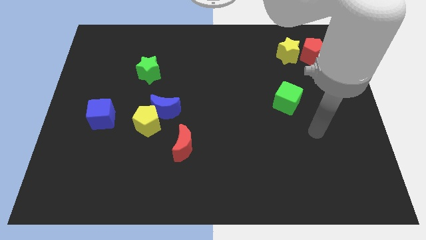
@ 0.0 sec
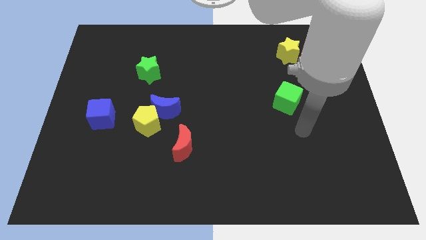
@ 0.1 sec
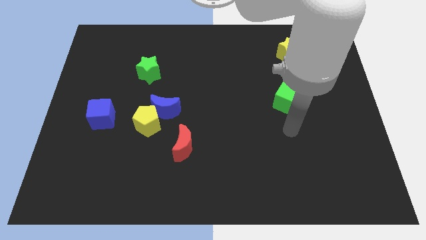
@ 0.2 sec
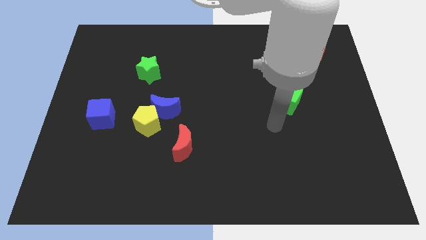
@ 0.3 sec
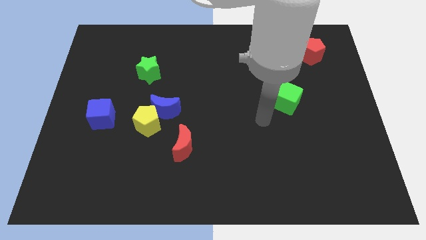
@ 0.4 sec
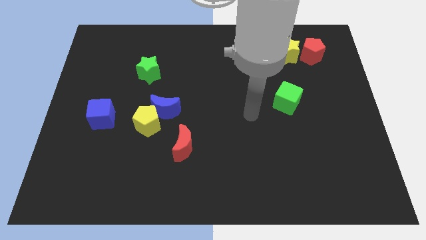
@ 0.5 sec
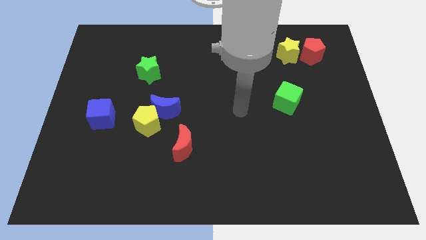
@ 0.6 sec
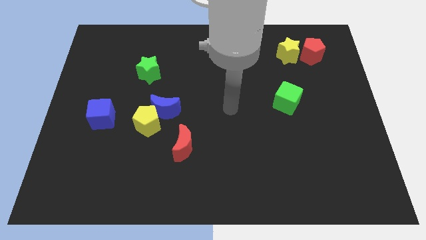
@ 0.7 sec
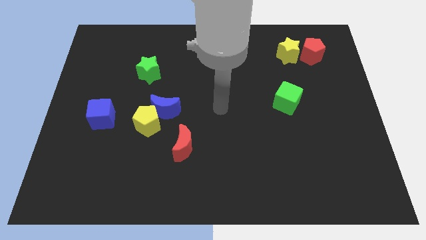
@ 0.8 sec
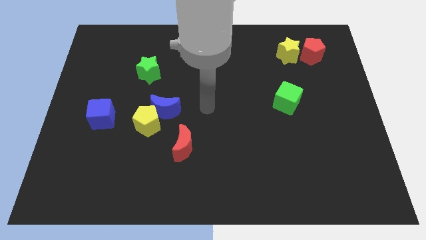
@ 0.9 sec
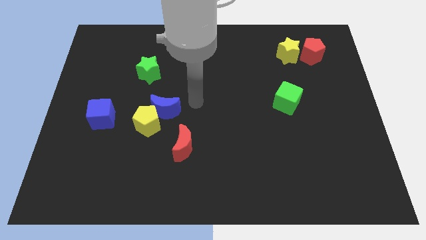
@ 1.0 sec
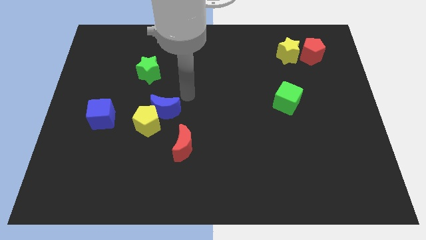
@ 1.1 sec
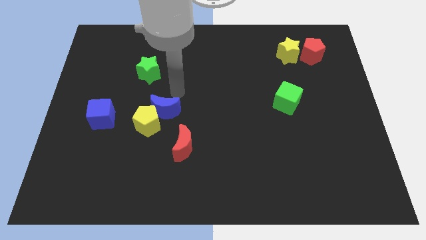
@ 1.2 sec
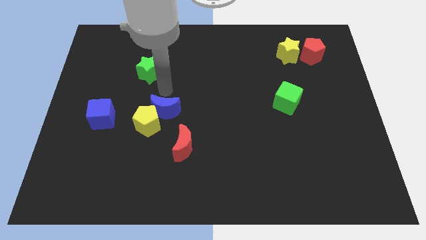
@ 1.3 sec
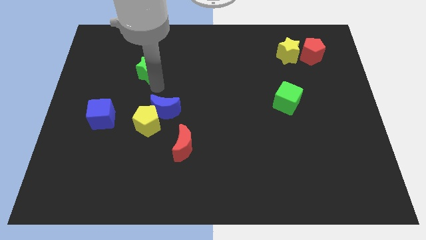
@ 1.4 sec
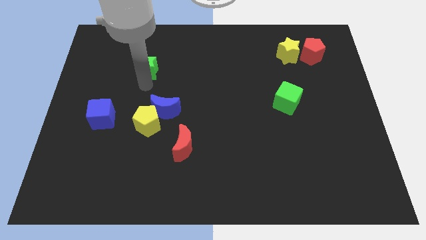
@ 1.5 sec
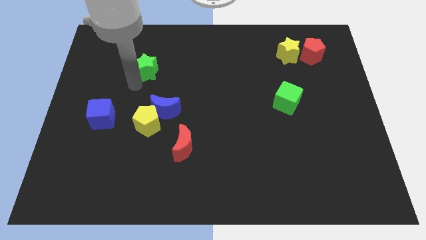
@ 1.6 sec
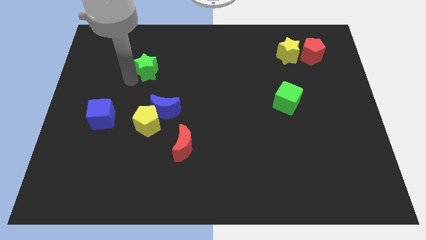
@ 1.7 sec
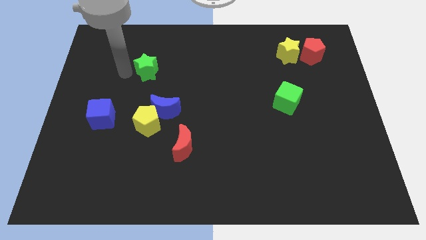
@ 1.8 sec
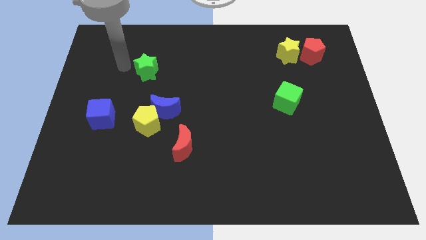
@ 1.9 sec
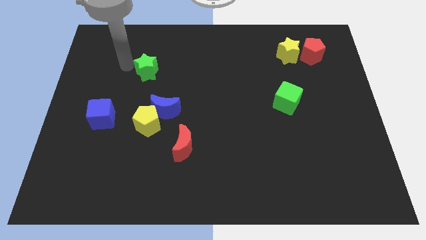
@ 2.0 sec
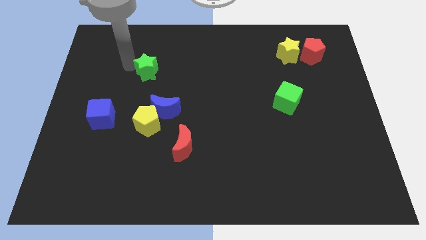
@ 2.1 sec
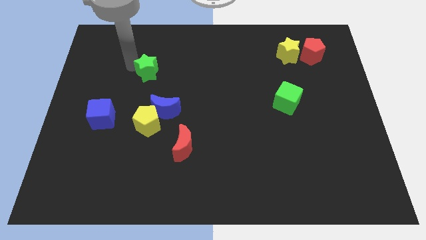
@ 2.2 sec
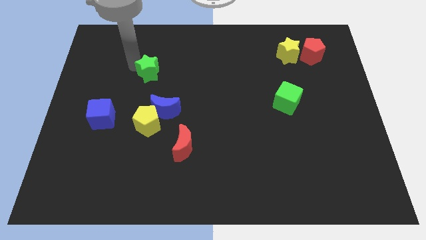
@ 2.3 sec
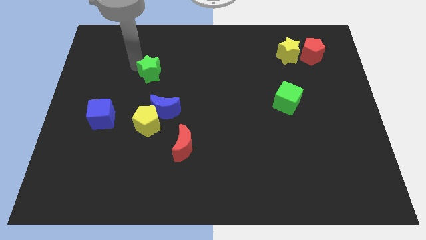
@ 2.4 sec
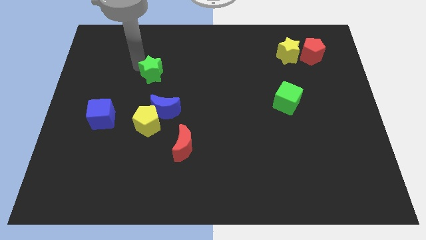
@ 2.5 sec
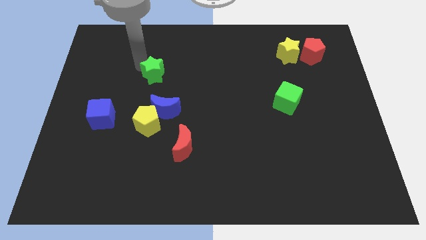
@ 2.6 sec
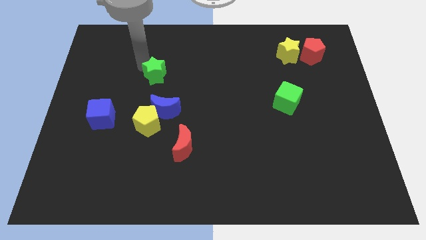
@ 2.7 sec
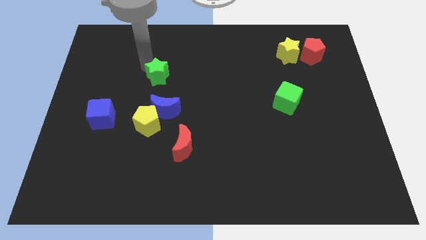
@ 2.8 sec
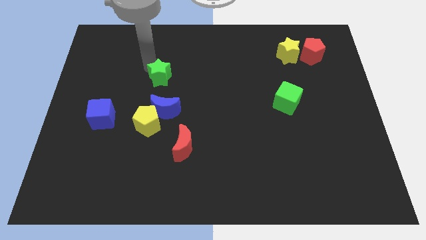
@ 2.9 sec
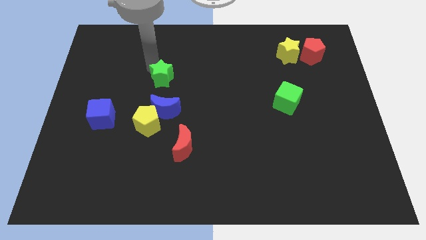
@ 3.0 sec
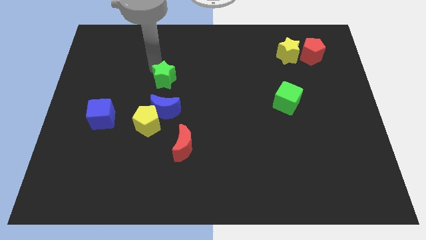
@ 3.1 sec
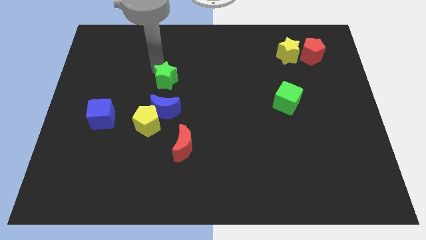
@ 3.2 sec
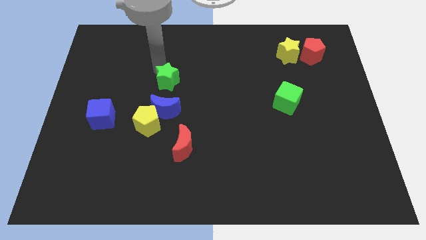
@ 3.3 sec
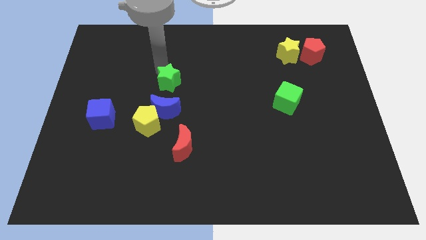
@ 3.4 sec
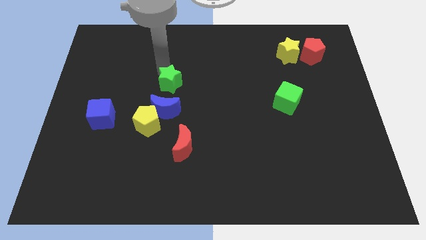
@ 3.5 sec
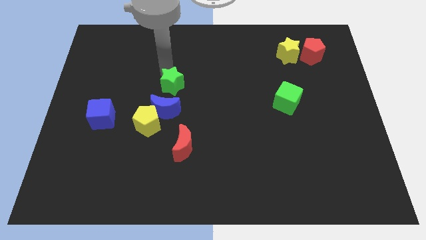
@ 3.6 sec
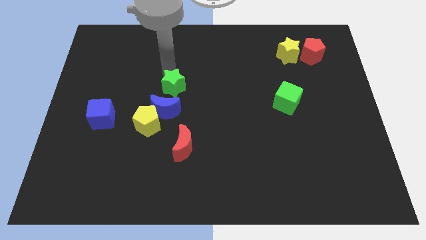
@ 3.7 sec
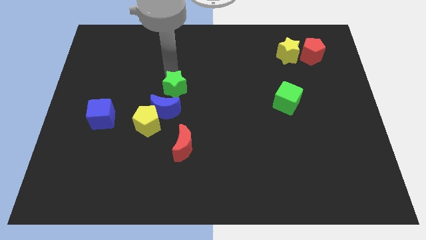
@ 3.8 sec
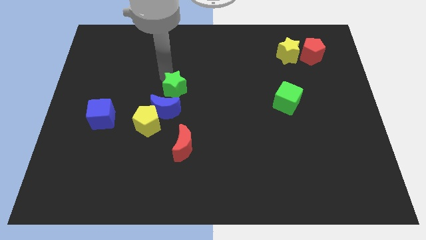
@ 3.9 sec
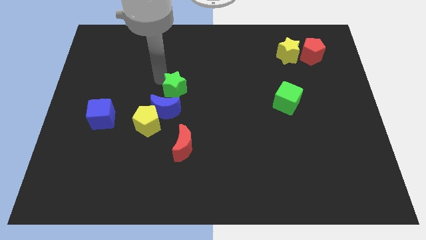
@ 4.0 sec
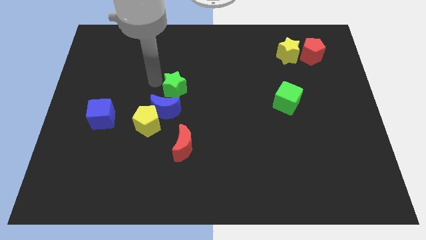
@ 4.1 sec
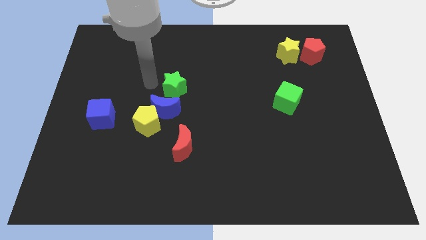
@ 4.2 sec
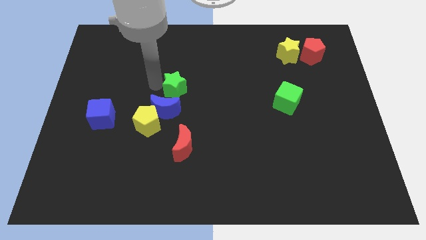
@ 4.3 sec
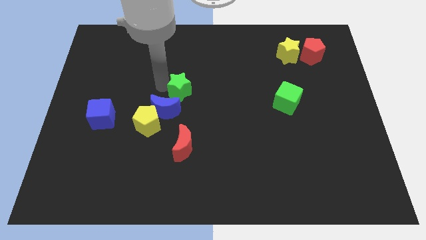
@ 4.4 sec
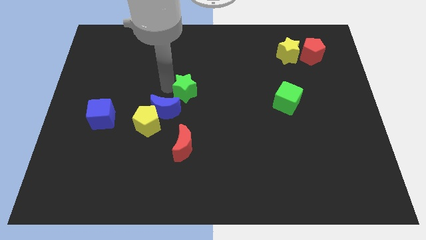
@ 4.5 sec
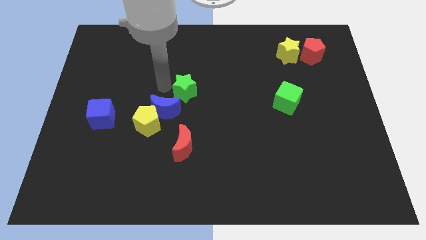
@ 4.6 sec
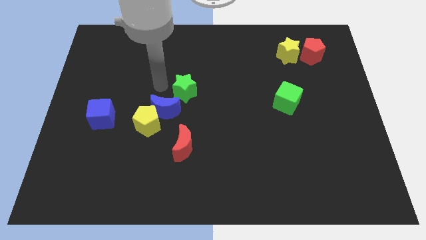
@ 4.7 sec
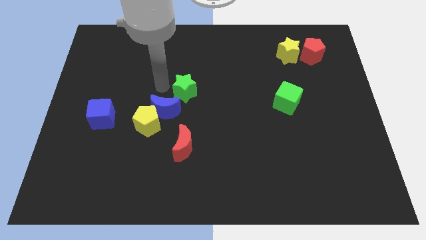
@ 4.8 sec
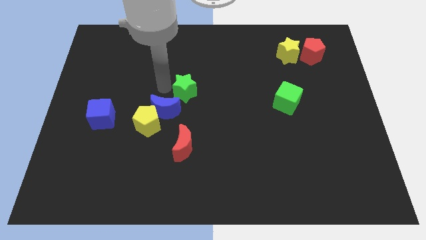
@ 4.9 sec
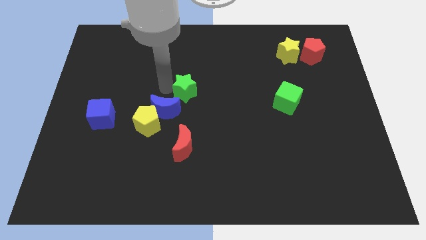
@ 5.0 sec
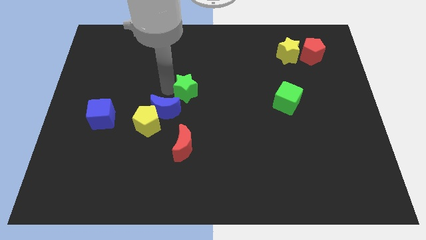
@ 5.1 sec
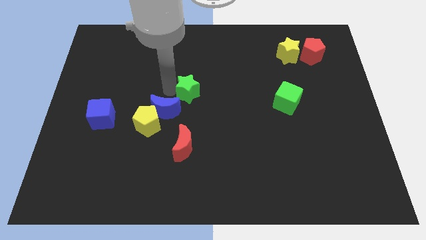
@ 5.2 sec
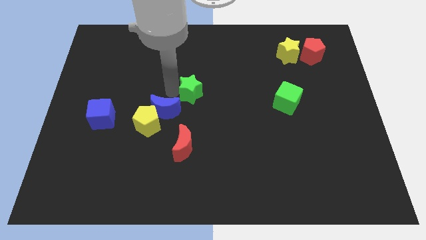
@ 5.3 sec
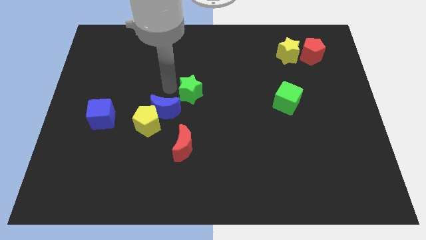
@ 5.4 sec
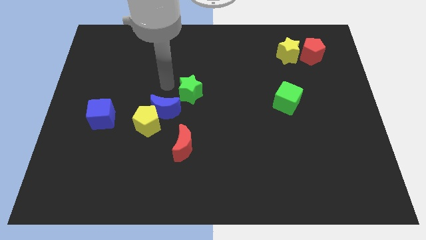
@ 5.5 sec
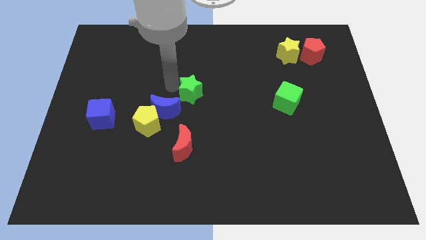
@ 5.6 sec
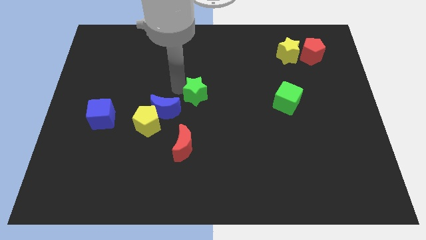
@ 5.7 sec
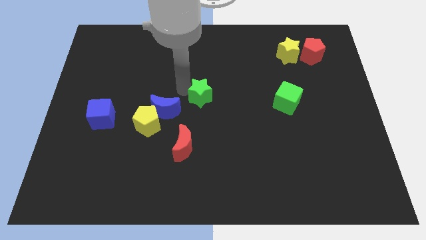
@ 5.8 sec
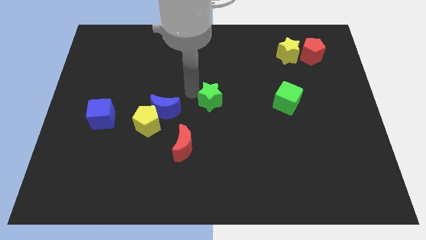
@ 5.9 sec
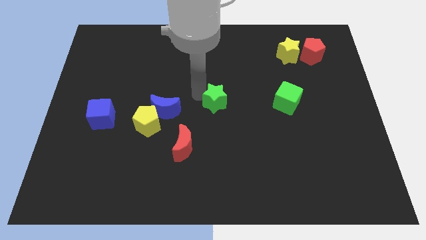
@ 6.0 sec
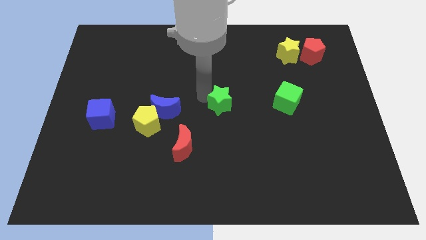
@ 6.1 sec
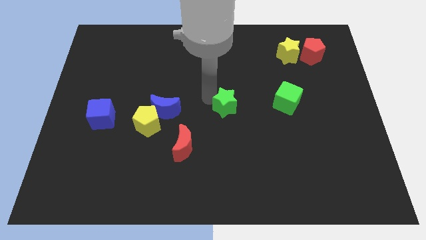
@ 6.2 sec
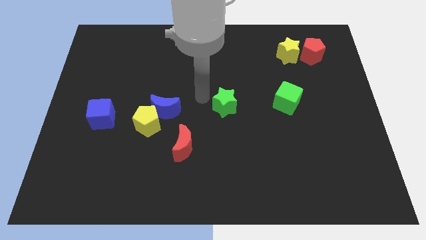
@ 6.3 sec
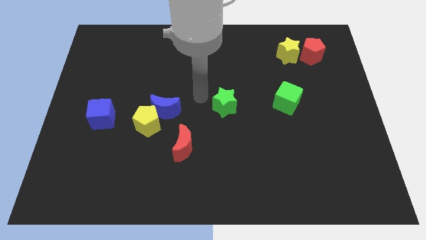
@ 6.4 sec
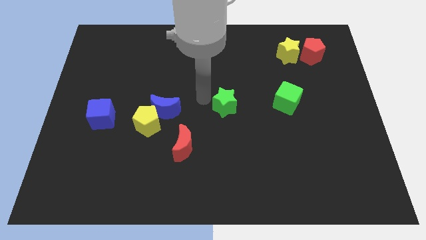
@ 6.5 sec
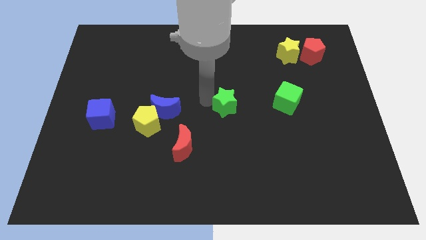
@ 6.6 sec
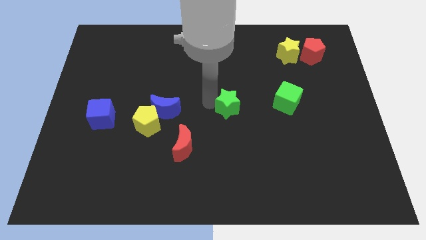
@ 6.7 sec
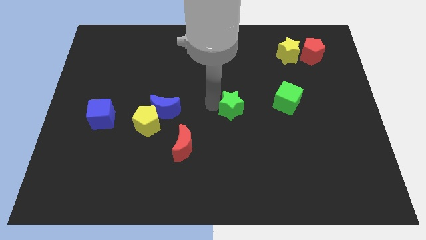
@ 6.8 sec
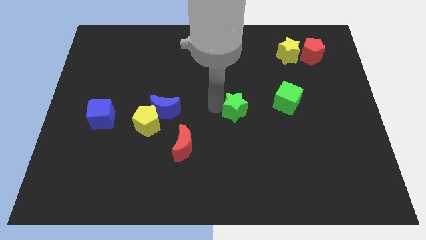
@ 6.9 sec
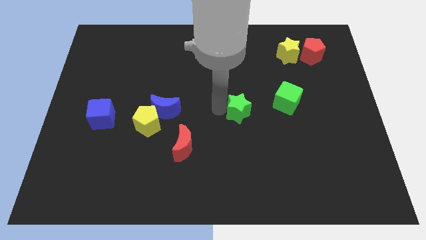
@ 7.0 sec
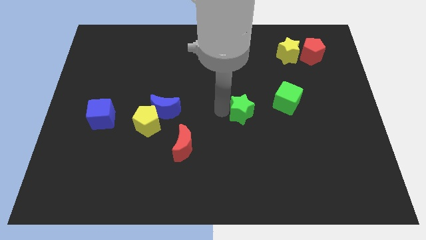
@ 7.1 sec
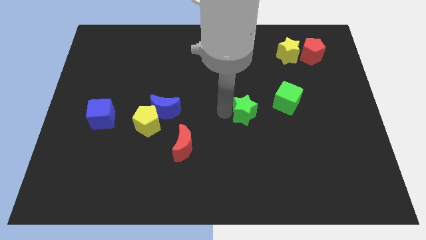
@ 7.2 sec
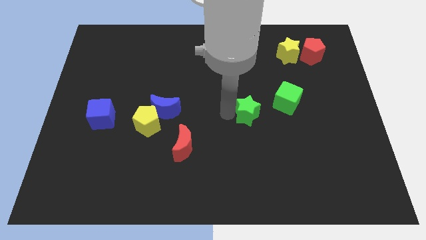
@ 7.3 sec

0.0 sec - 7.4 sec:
put the green star to the bottom left side of the green cube
